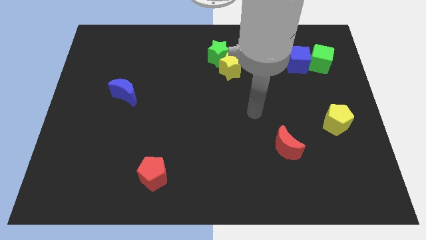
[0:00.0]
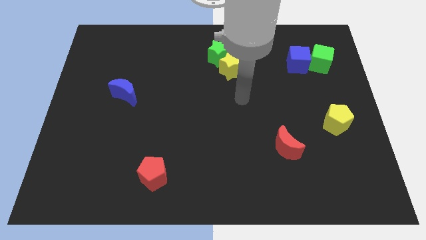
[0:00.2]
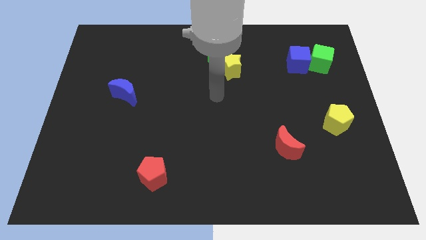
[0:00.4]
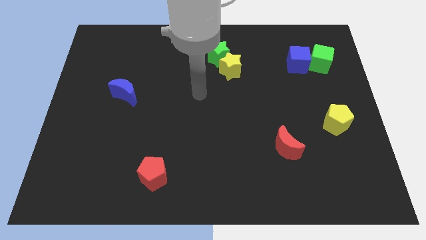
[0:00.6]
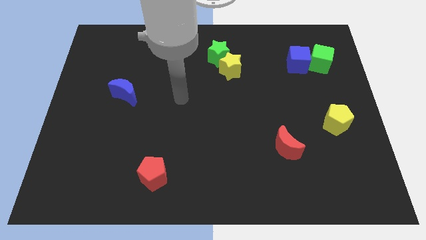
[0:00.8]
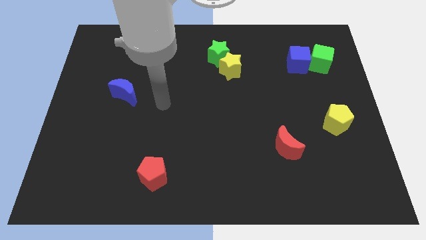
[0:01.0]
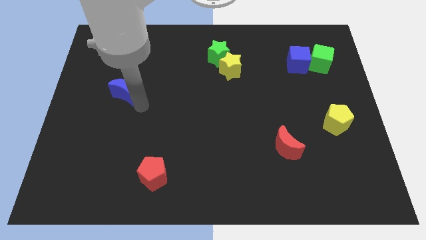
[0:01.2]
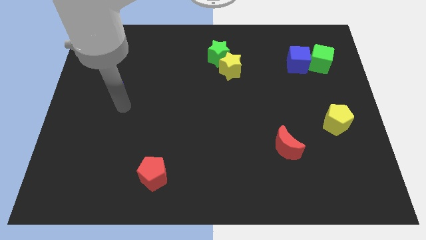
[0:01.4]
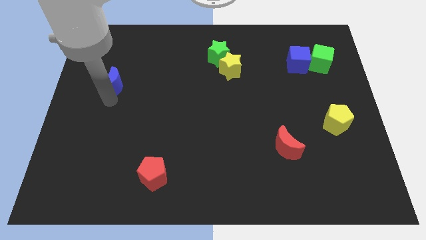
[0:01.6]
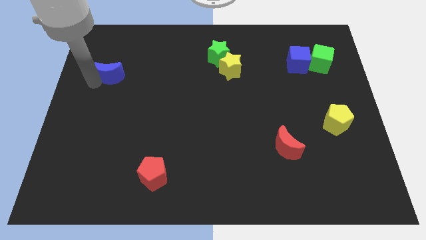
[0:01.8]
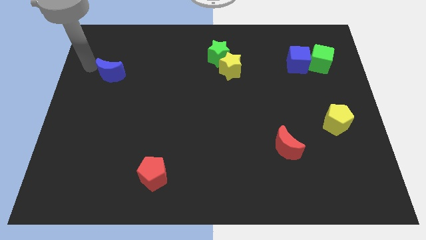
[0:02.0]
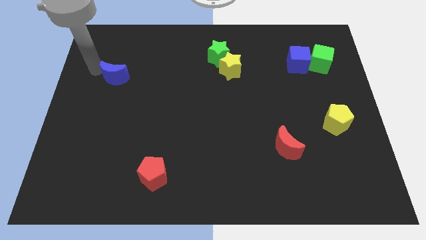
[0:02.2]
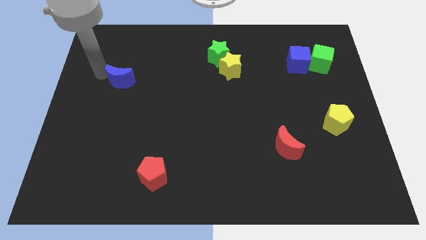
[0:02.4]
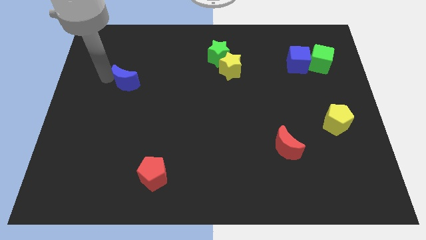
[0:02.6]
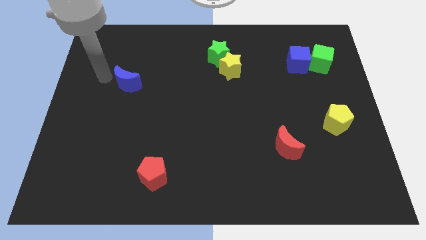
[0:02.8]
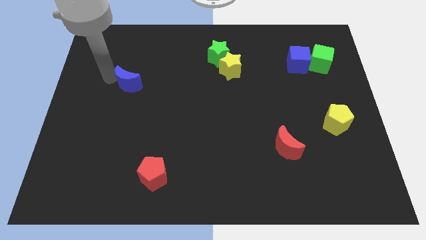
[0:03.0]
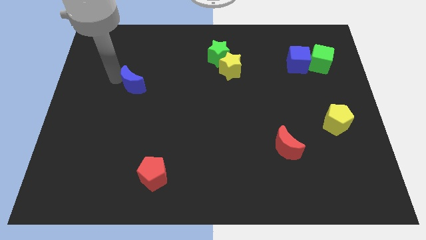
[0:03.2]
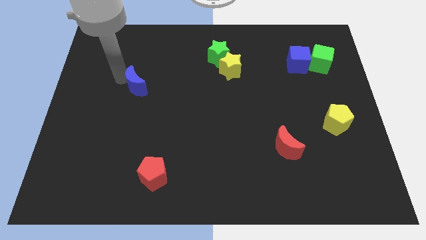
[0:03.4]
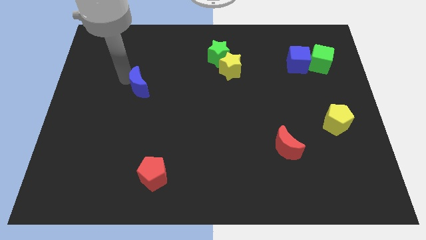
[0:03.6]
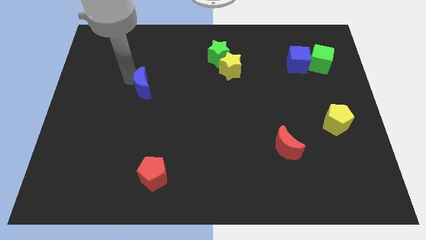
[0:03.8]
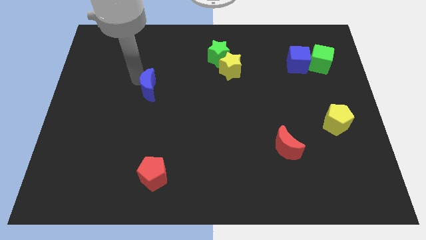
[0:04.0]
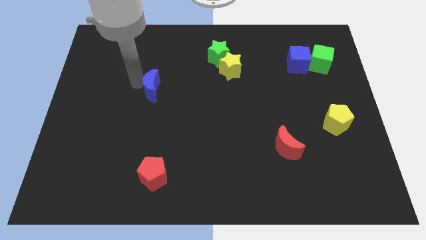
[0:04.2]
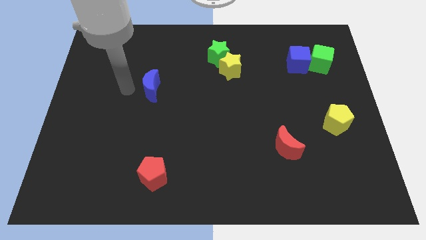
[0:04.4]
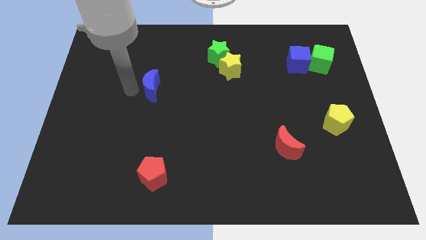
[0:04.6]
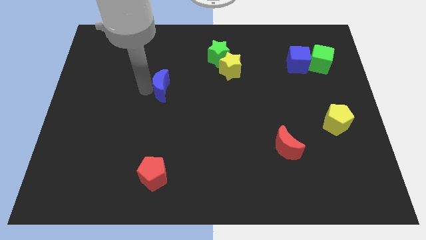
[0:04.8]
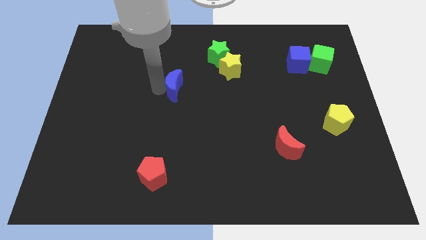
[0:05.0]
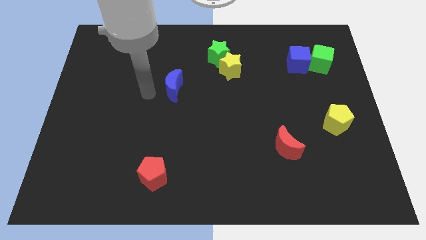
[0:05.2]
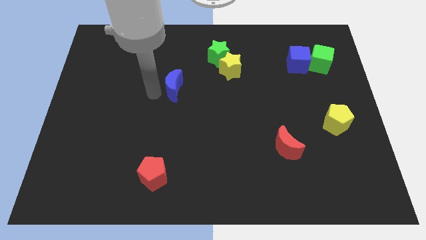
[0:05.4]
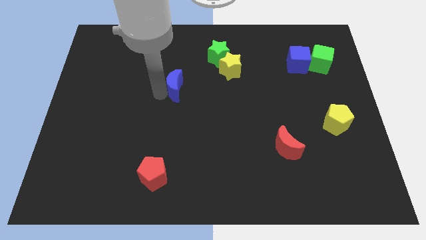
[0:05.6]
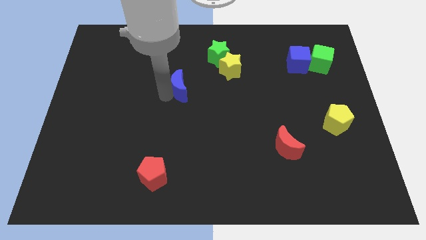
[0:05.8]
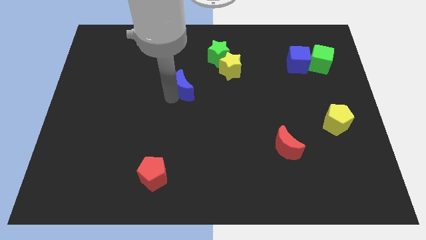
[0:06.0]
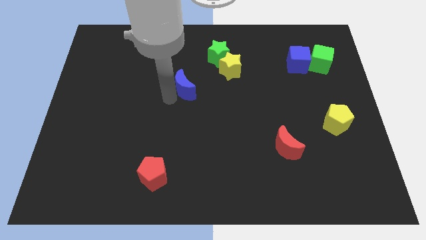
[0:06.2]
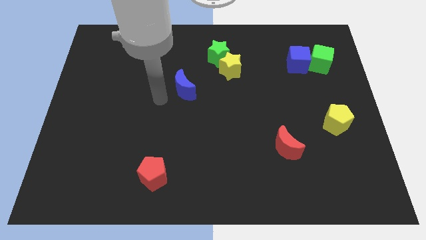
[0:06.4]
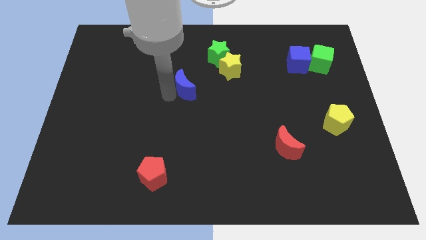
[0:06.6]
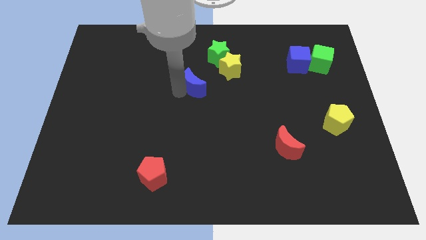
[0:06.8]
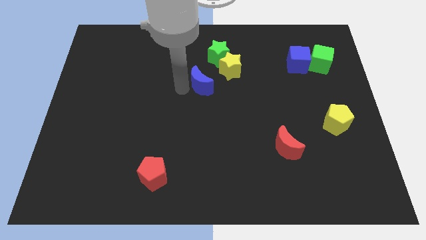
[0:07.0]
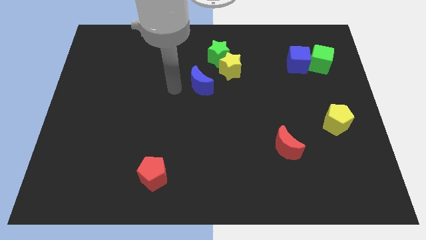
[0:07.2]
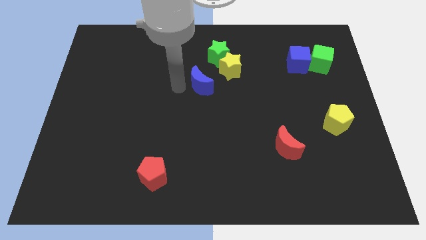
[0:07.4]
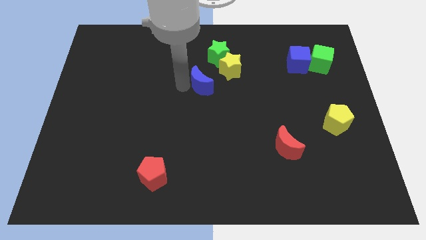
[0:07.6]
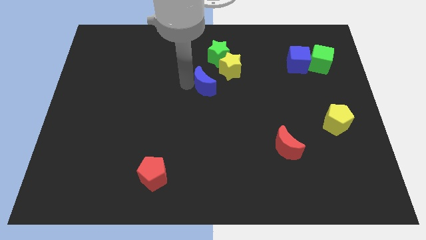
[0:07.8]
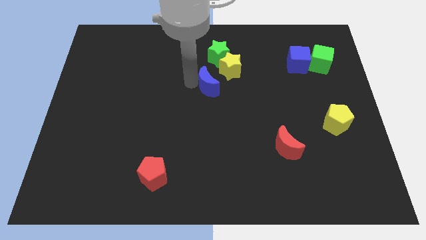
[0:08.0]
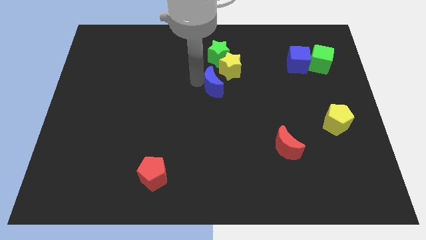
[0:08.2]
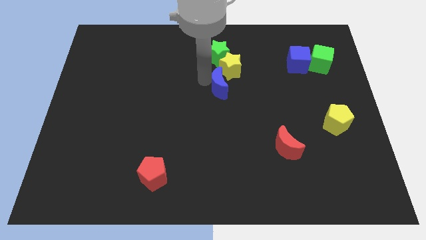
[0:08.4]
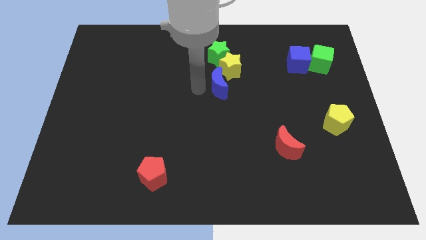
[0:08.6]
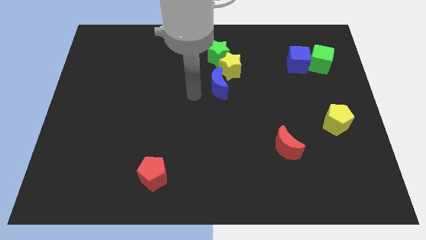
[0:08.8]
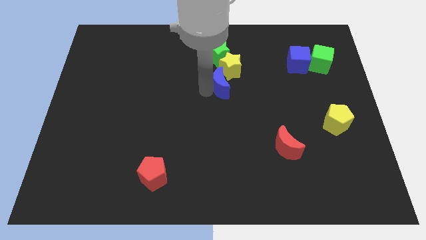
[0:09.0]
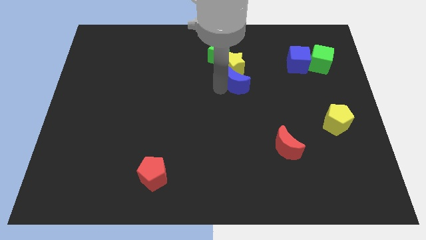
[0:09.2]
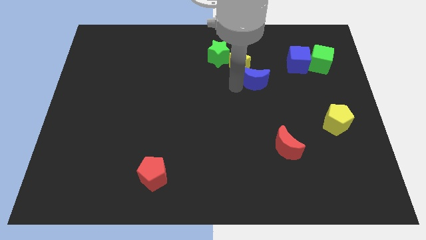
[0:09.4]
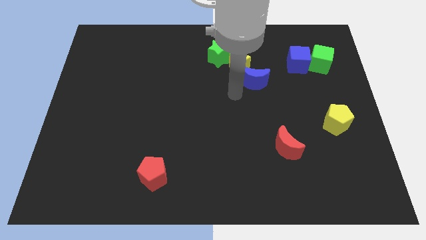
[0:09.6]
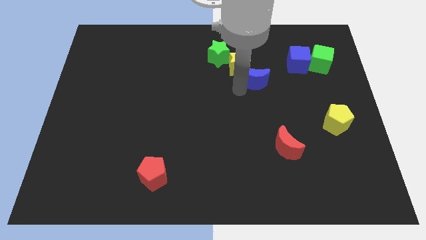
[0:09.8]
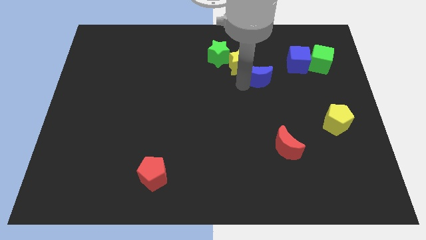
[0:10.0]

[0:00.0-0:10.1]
push the blue moon right of the yellow star

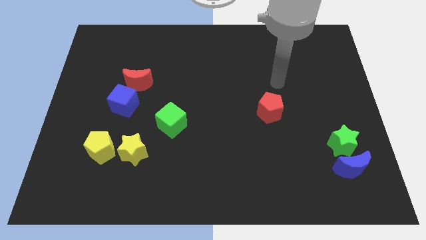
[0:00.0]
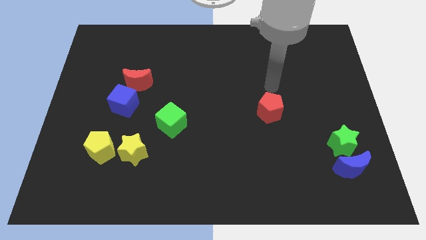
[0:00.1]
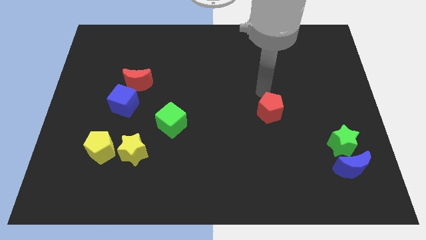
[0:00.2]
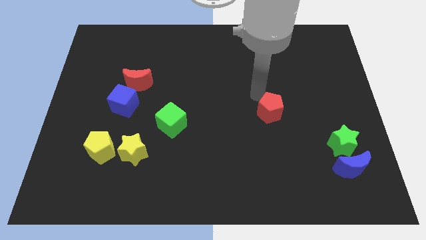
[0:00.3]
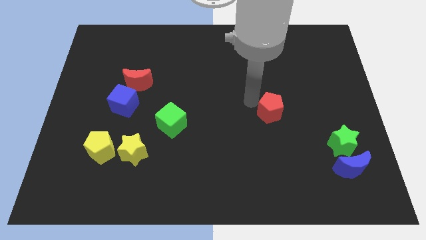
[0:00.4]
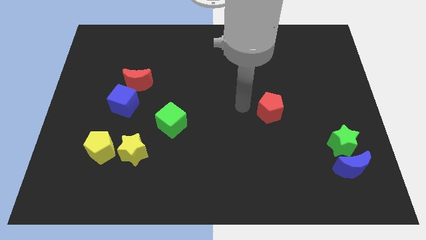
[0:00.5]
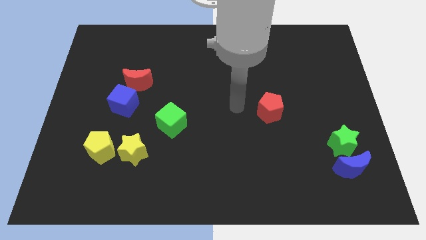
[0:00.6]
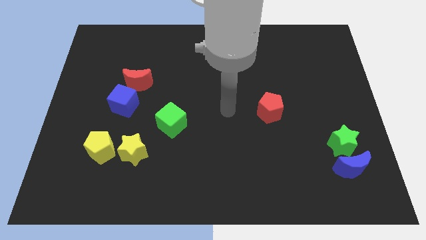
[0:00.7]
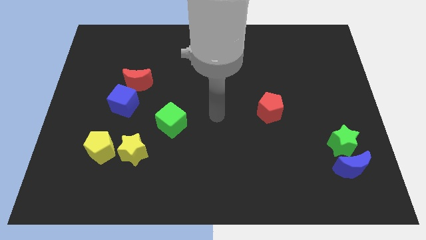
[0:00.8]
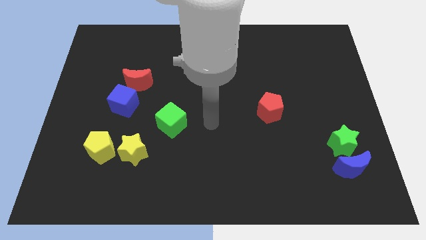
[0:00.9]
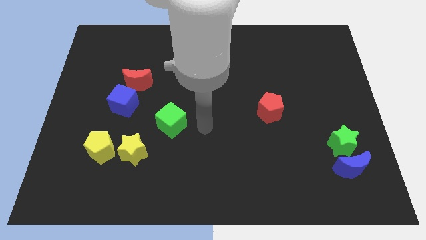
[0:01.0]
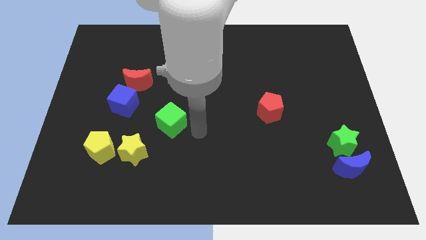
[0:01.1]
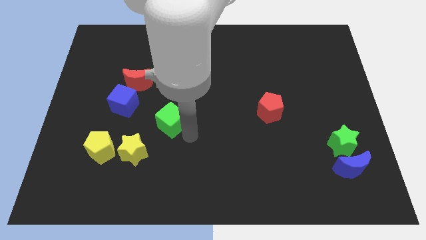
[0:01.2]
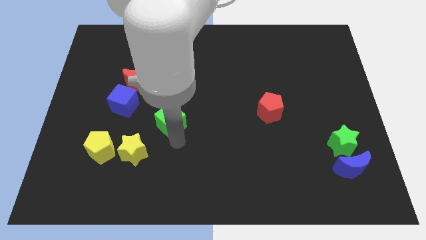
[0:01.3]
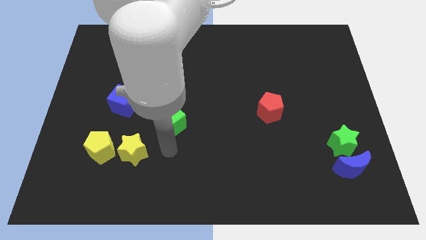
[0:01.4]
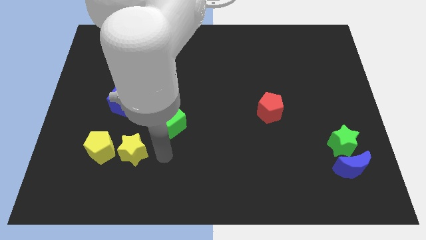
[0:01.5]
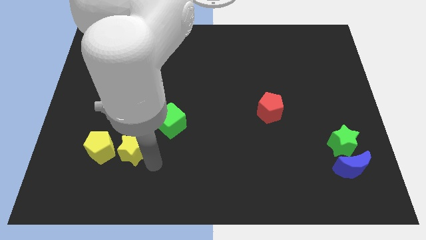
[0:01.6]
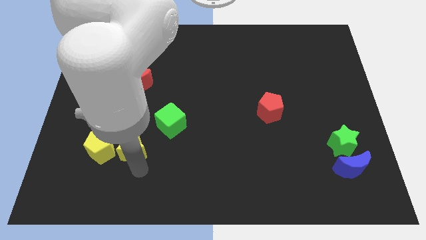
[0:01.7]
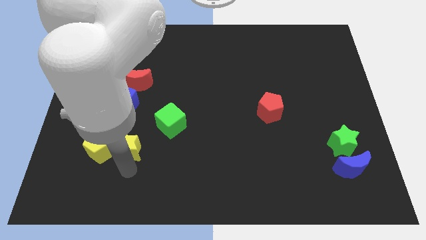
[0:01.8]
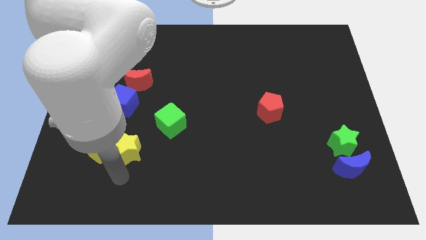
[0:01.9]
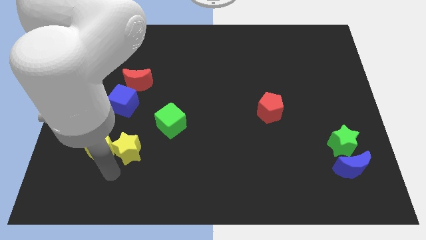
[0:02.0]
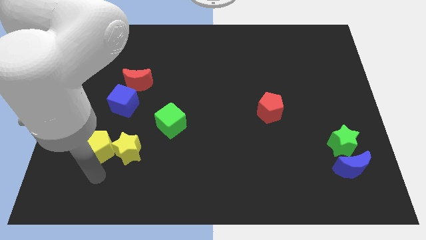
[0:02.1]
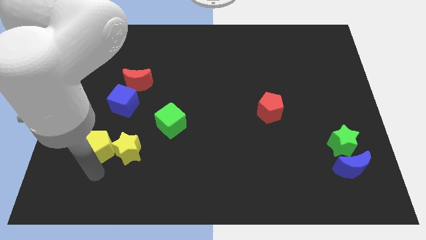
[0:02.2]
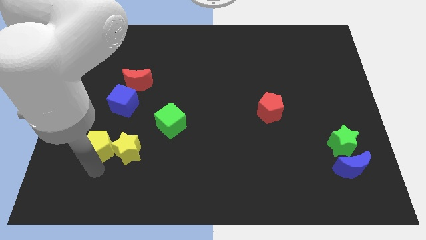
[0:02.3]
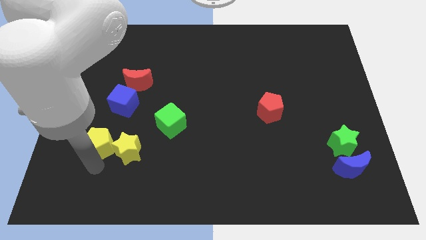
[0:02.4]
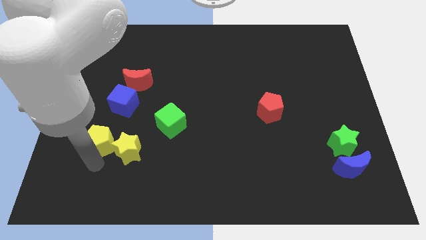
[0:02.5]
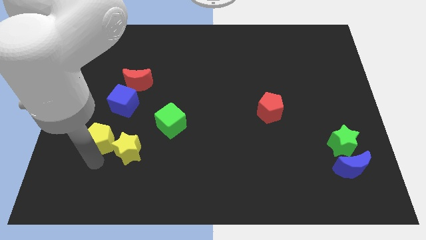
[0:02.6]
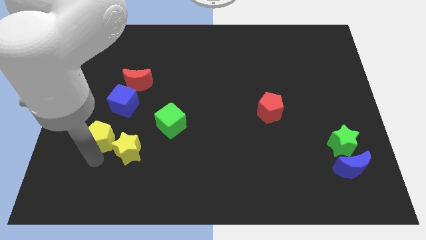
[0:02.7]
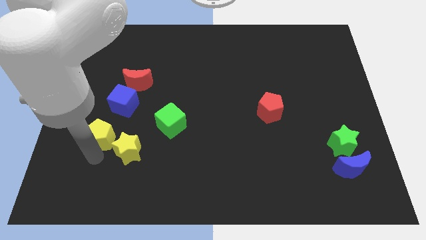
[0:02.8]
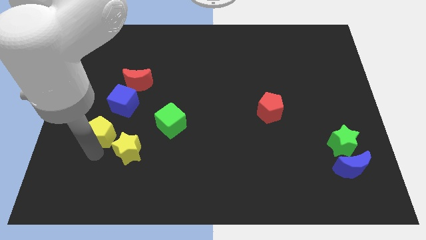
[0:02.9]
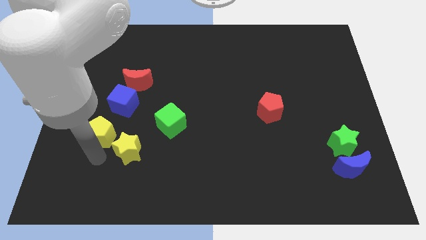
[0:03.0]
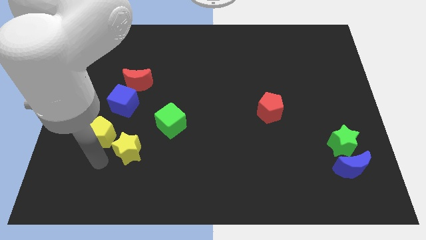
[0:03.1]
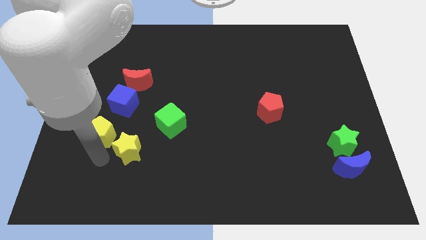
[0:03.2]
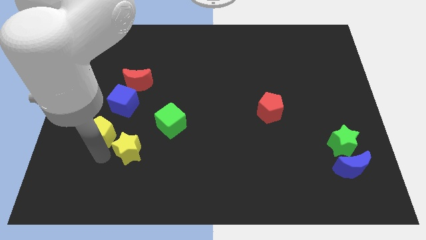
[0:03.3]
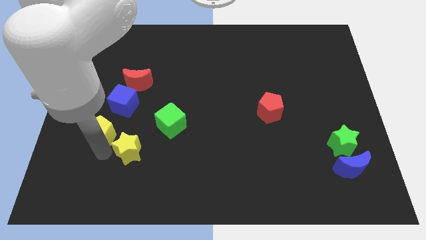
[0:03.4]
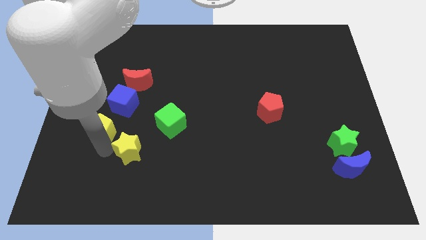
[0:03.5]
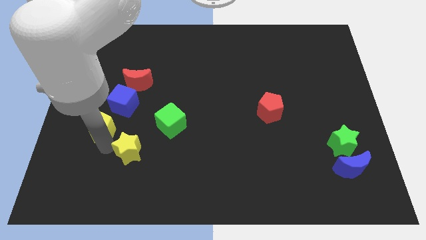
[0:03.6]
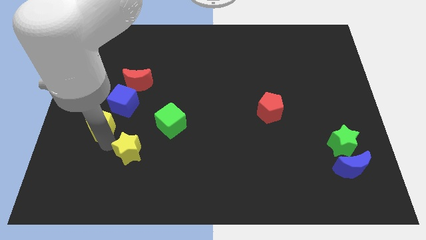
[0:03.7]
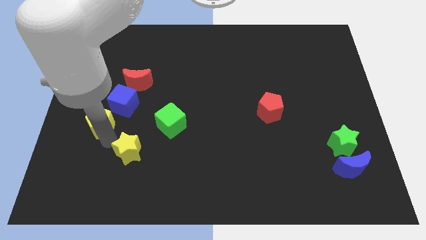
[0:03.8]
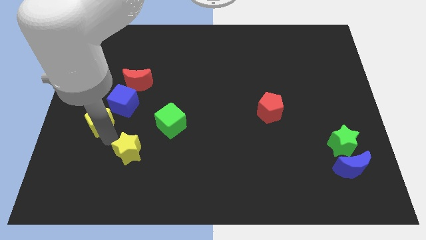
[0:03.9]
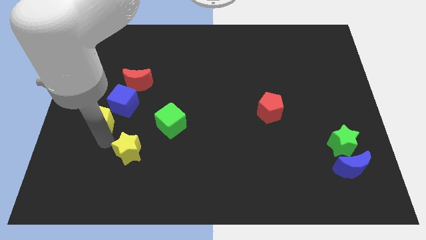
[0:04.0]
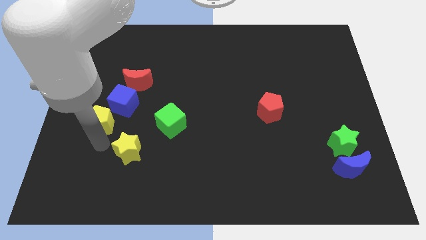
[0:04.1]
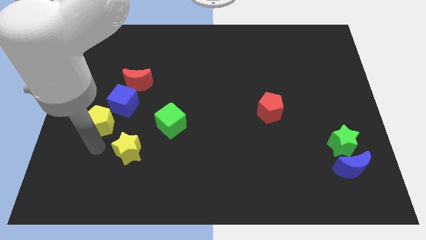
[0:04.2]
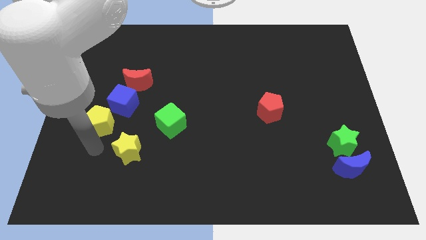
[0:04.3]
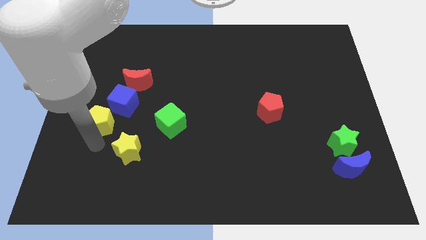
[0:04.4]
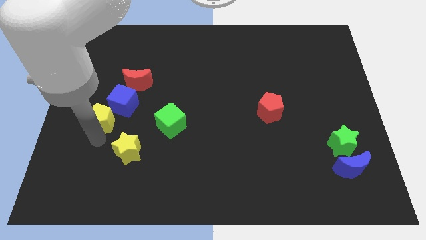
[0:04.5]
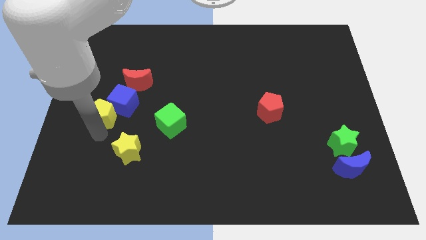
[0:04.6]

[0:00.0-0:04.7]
slide the yellow pentagon diagonally down and to the left of the red moon
